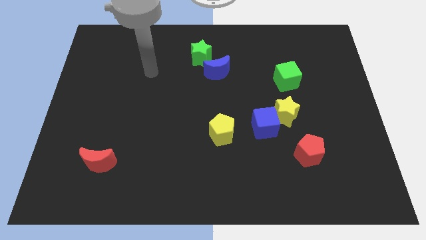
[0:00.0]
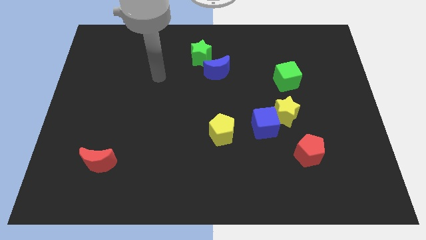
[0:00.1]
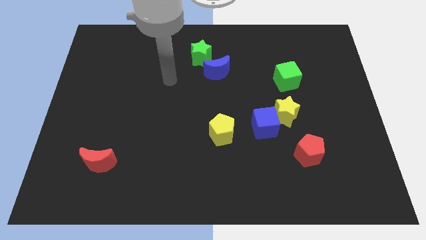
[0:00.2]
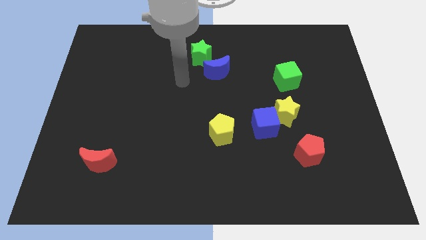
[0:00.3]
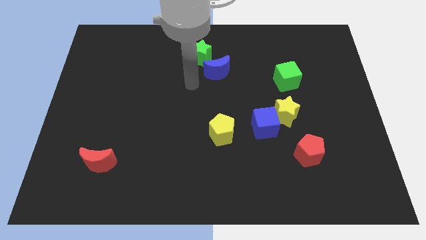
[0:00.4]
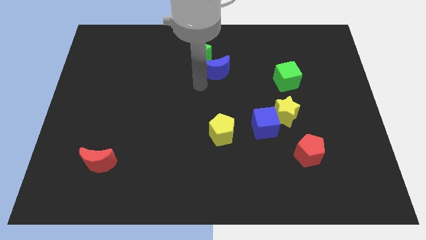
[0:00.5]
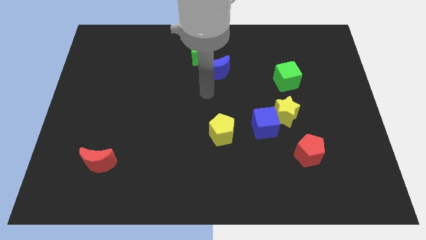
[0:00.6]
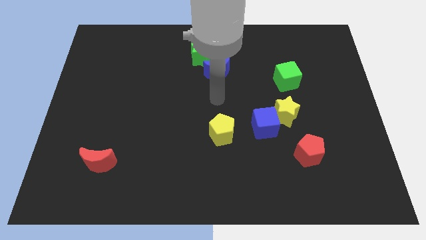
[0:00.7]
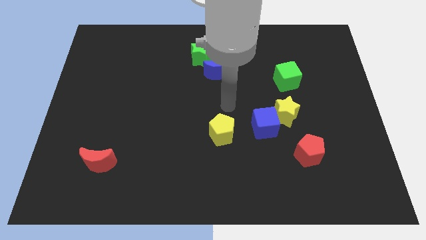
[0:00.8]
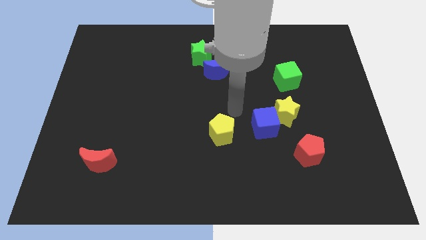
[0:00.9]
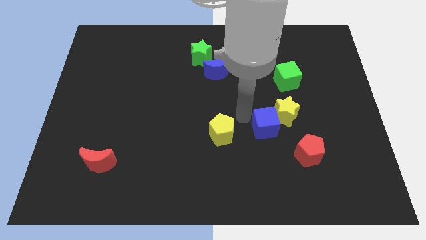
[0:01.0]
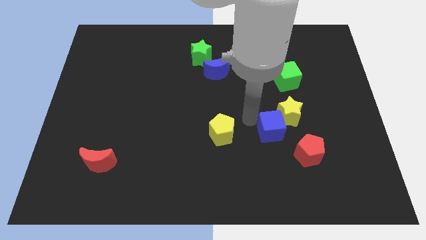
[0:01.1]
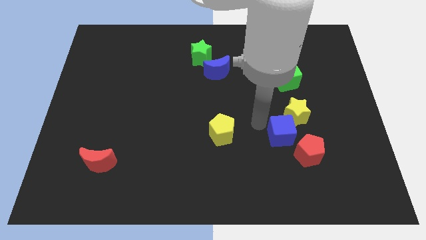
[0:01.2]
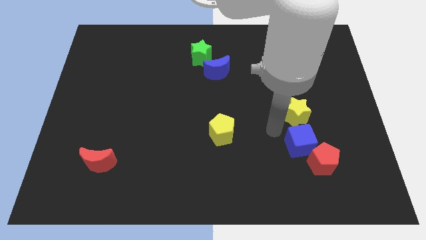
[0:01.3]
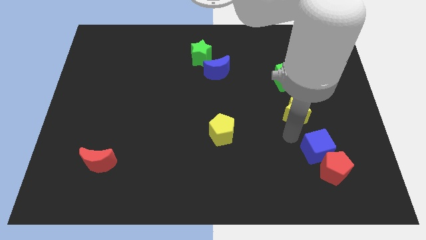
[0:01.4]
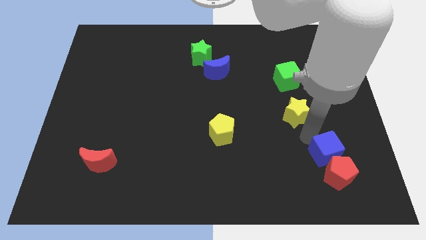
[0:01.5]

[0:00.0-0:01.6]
move the yellow star away from the blue cube

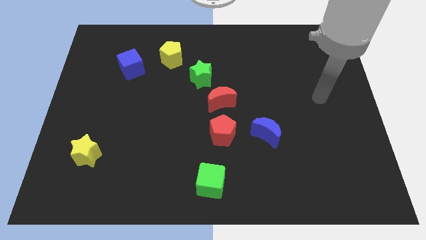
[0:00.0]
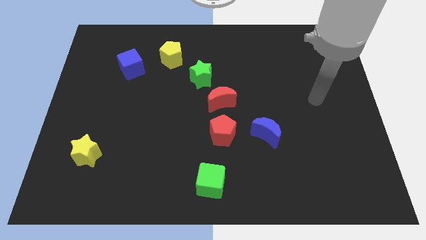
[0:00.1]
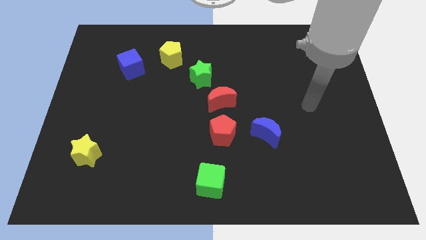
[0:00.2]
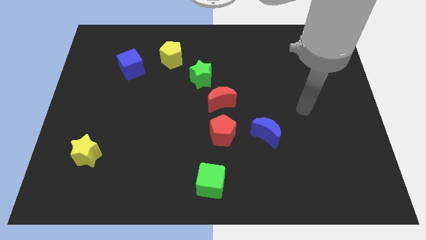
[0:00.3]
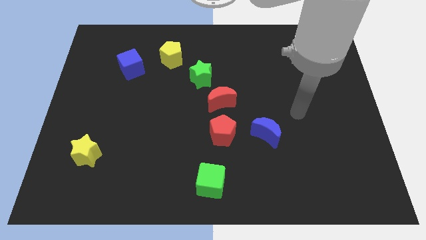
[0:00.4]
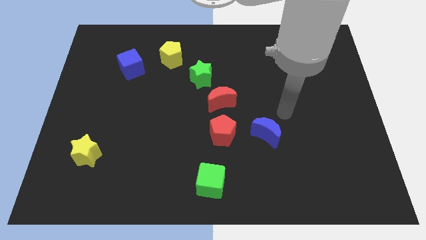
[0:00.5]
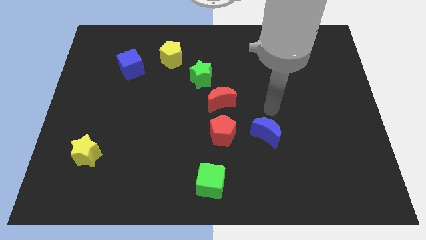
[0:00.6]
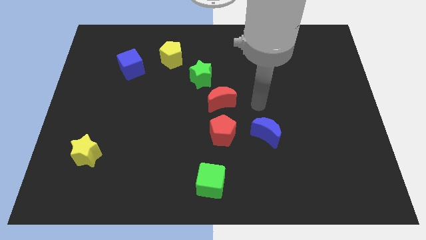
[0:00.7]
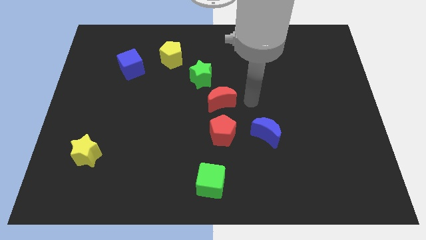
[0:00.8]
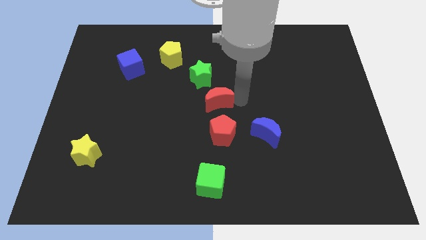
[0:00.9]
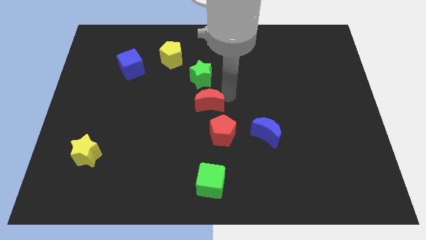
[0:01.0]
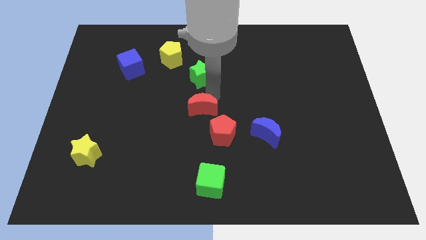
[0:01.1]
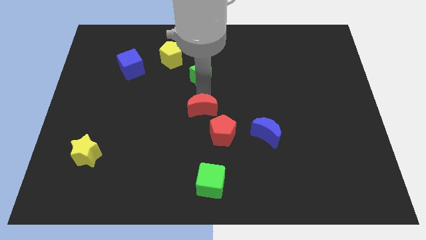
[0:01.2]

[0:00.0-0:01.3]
separate the green star from the red moon

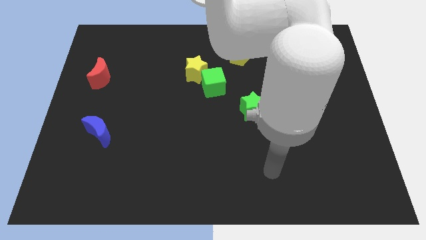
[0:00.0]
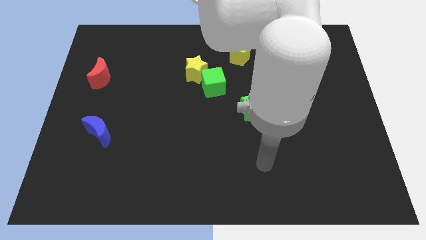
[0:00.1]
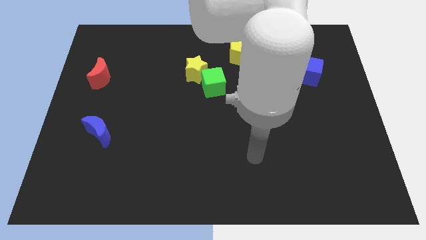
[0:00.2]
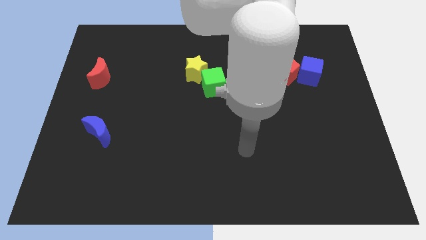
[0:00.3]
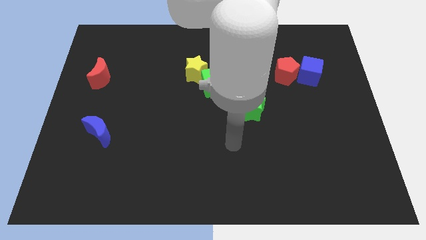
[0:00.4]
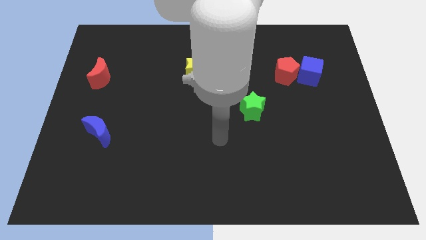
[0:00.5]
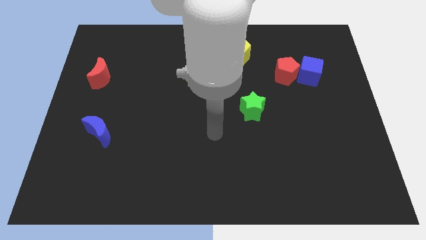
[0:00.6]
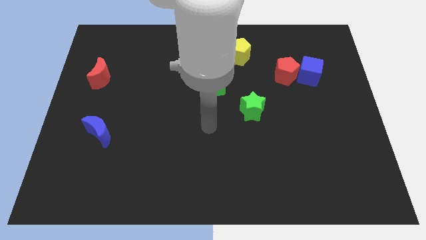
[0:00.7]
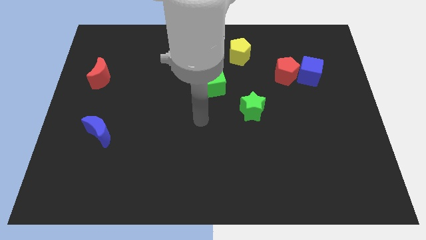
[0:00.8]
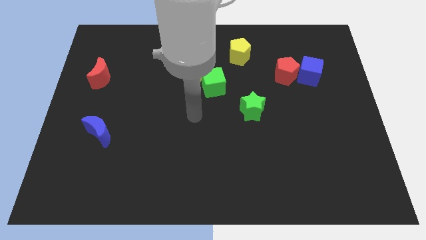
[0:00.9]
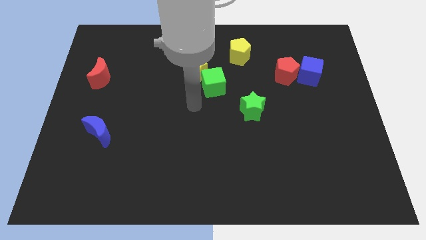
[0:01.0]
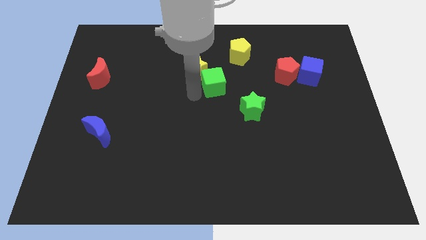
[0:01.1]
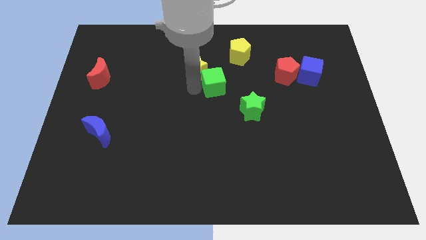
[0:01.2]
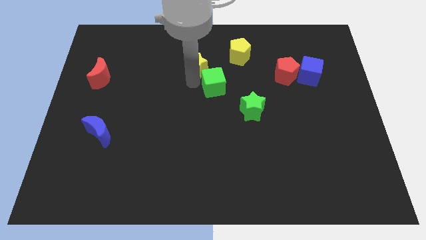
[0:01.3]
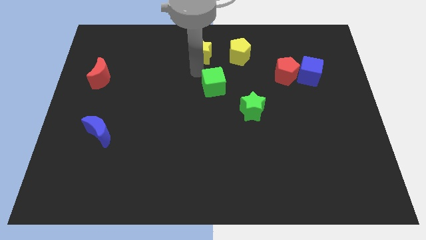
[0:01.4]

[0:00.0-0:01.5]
pull the green cube apart from the yellow star

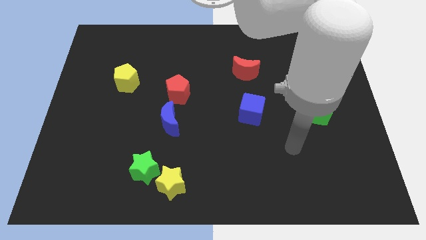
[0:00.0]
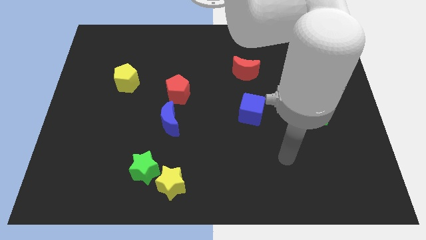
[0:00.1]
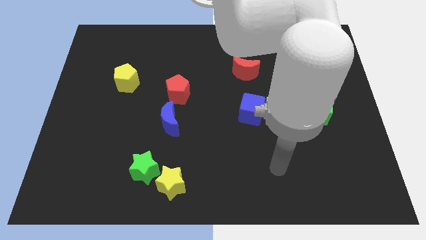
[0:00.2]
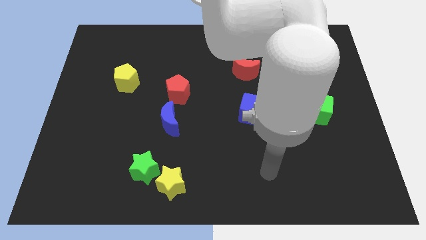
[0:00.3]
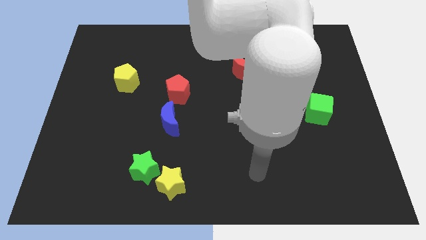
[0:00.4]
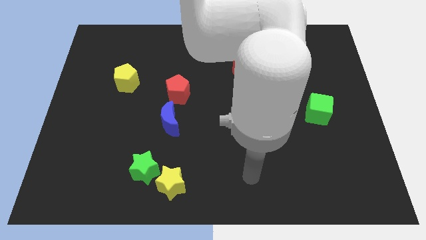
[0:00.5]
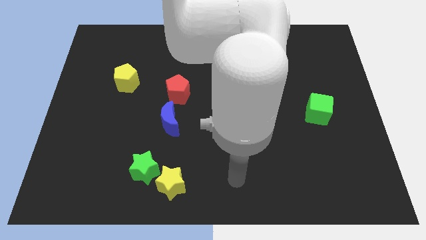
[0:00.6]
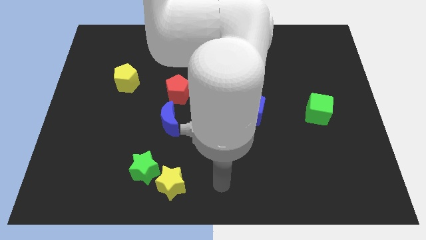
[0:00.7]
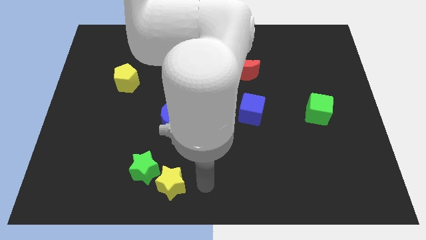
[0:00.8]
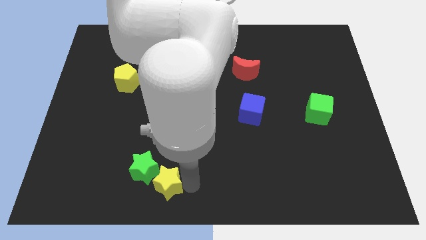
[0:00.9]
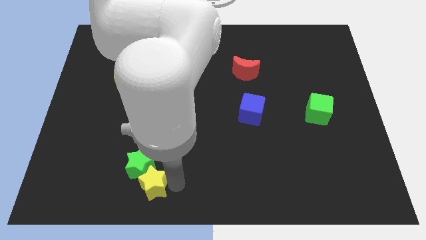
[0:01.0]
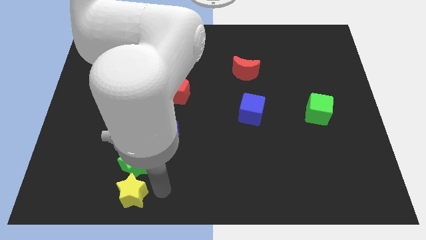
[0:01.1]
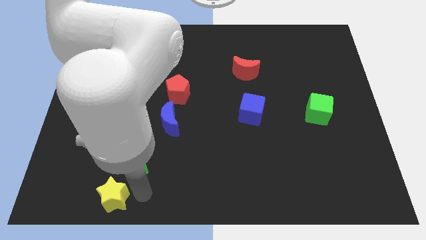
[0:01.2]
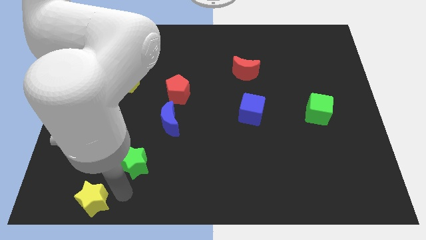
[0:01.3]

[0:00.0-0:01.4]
separate the green star from the yellow star

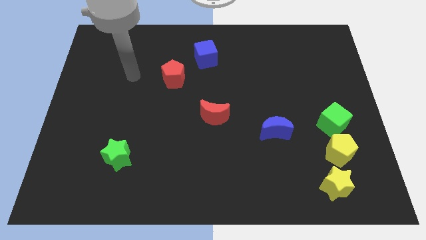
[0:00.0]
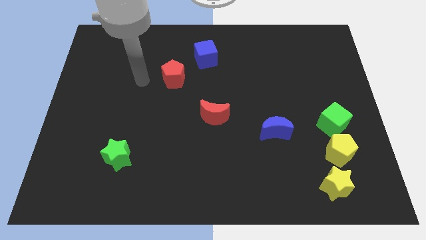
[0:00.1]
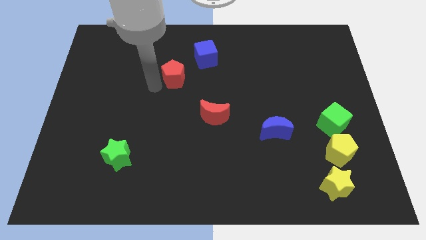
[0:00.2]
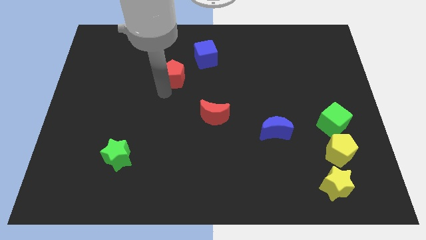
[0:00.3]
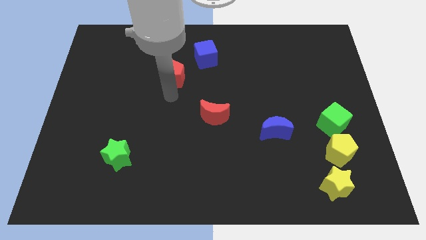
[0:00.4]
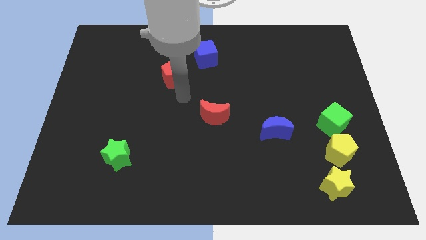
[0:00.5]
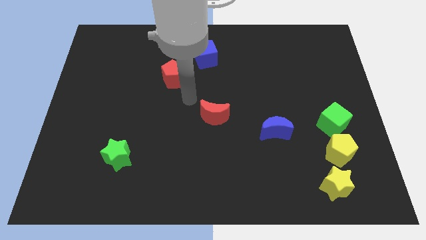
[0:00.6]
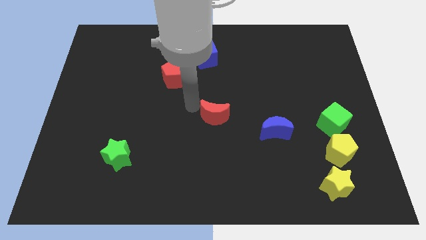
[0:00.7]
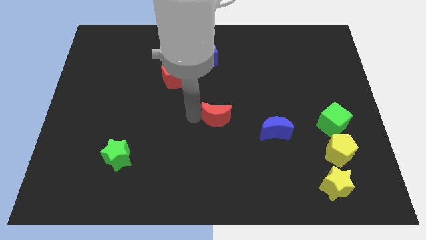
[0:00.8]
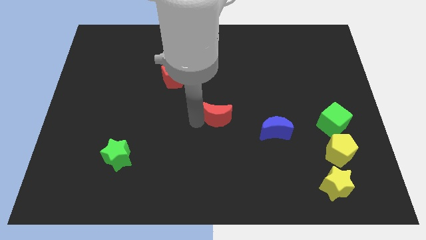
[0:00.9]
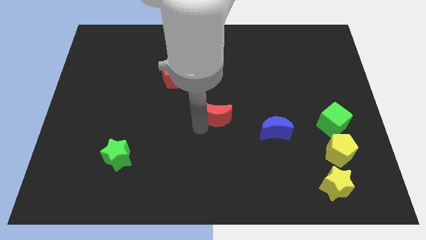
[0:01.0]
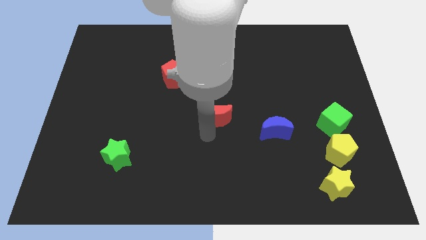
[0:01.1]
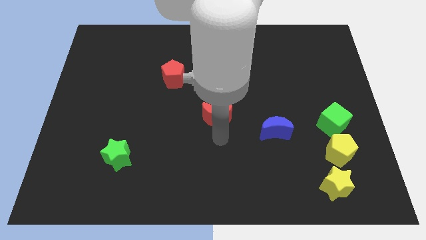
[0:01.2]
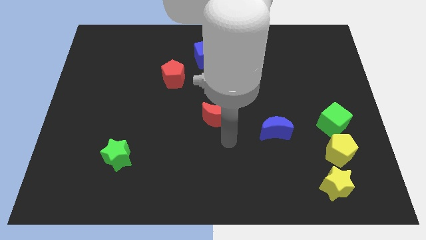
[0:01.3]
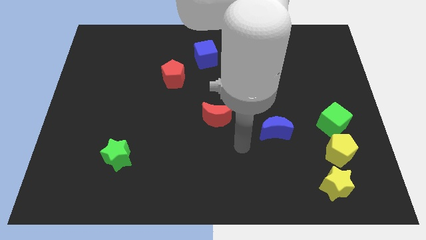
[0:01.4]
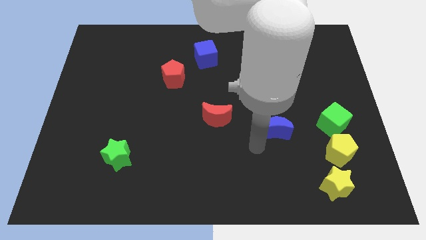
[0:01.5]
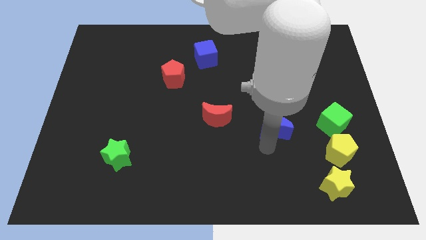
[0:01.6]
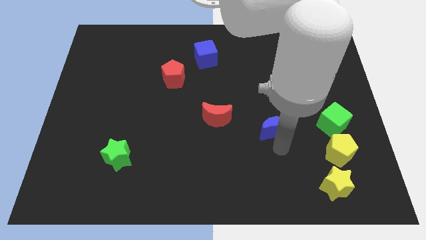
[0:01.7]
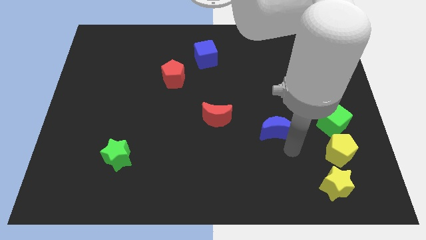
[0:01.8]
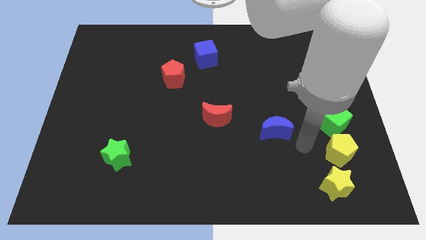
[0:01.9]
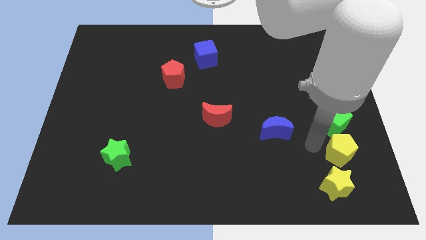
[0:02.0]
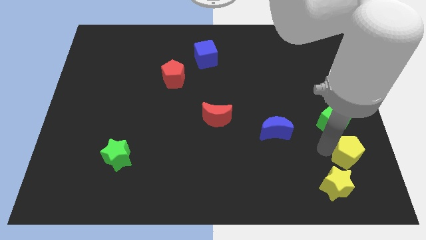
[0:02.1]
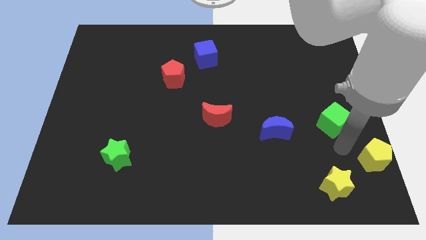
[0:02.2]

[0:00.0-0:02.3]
pull the green cube apart from the yellow pentagon

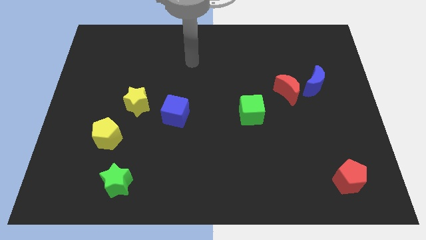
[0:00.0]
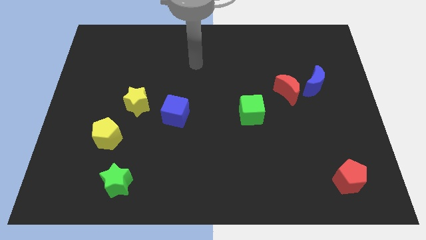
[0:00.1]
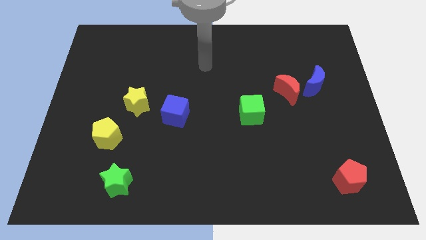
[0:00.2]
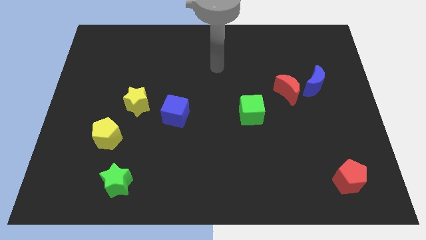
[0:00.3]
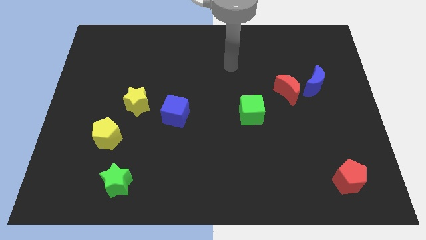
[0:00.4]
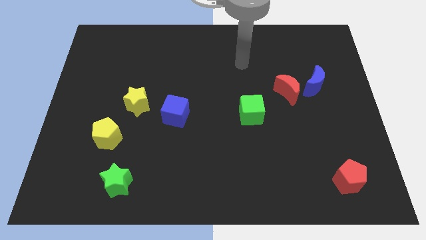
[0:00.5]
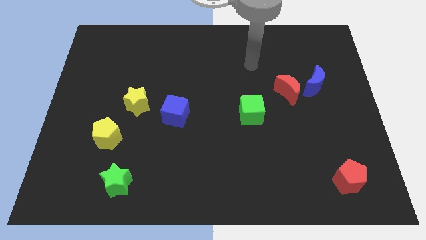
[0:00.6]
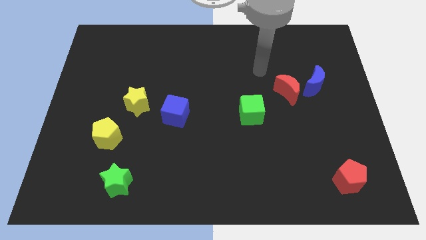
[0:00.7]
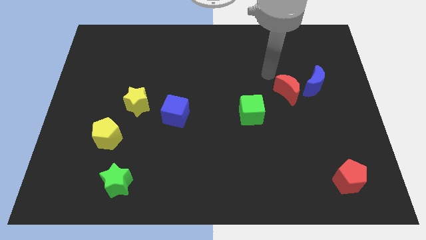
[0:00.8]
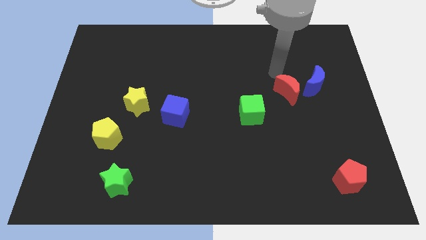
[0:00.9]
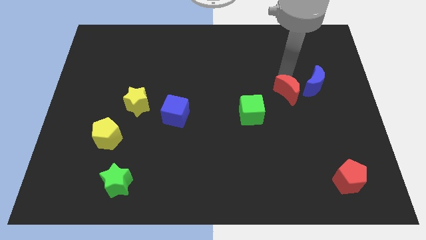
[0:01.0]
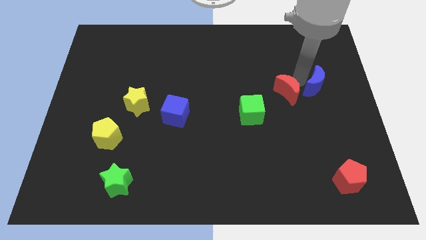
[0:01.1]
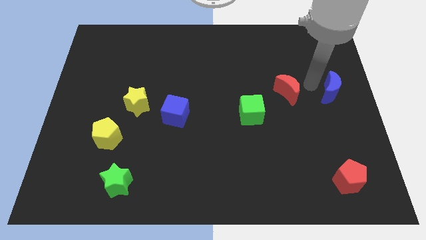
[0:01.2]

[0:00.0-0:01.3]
separate the red moon from the blue moon
